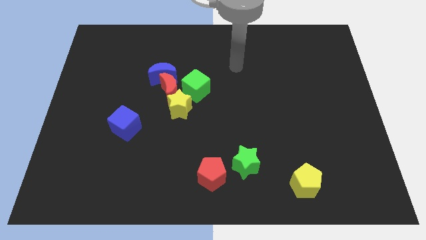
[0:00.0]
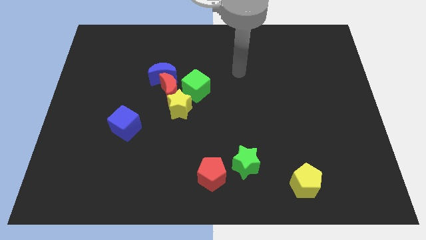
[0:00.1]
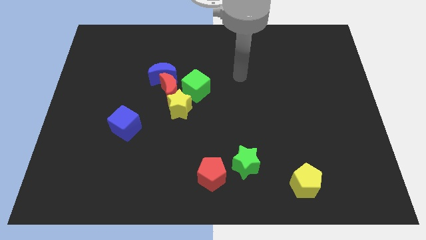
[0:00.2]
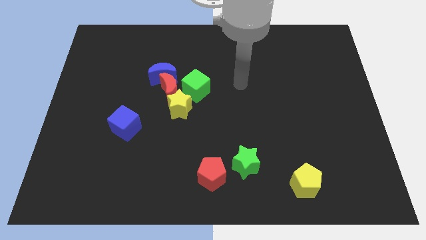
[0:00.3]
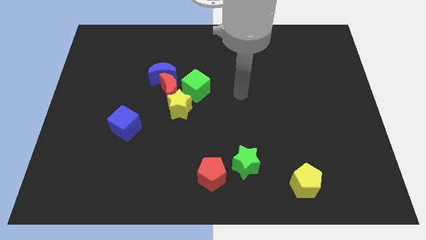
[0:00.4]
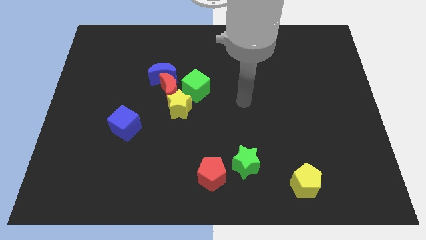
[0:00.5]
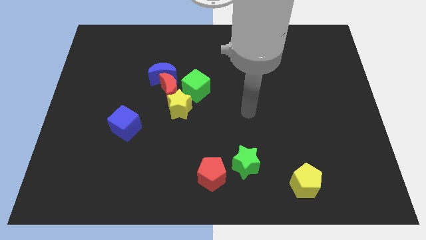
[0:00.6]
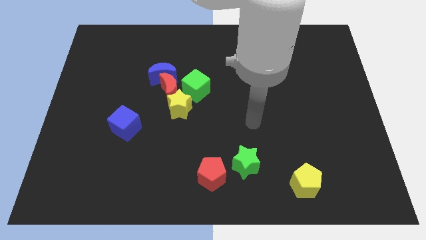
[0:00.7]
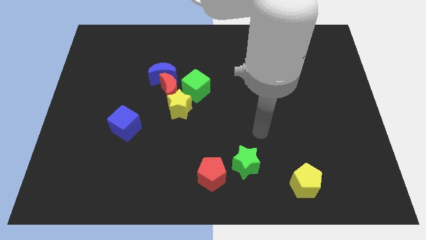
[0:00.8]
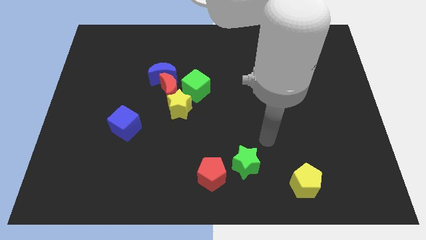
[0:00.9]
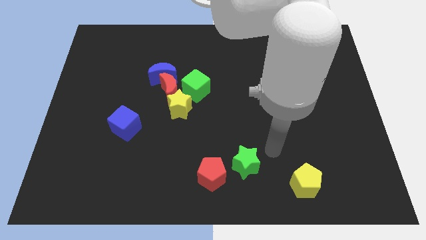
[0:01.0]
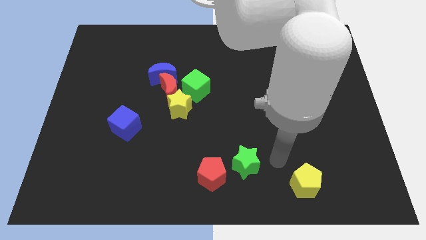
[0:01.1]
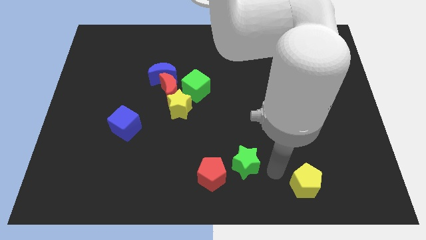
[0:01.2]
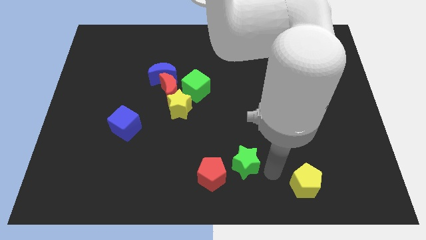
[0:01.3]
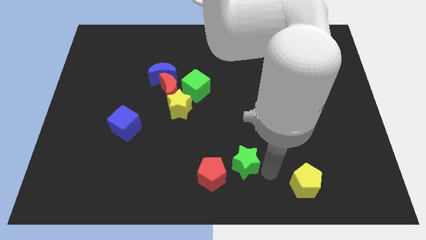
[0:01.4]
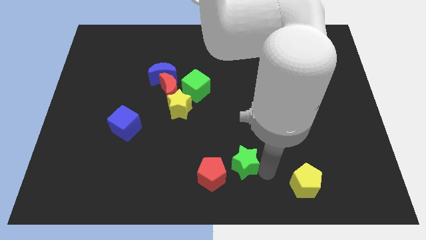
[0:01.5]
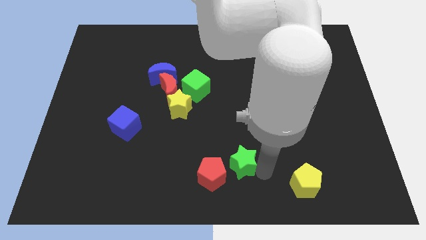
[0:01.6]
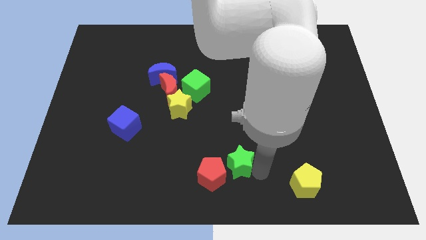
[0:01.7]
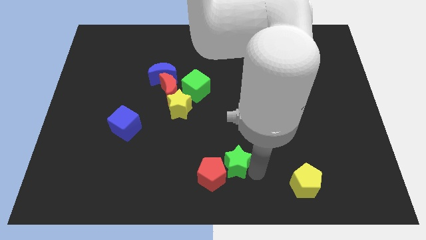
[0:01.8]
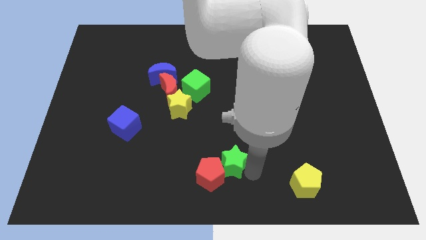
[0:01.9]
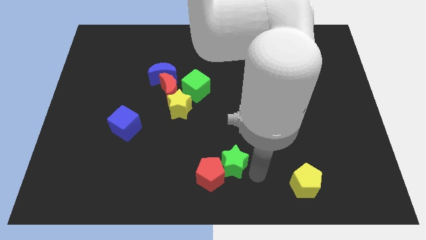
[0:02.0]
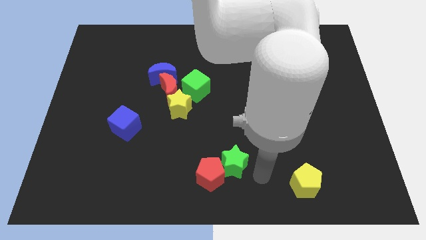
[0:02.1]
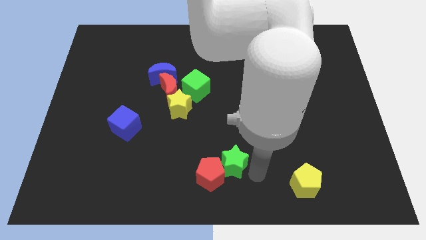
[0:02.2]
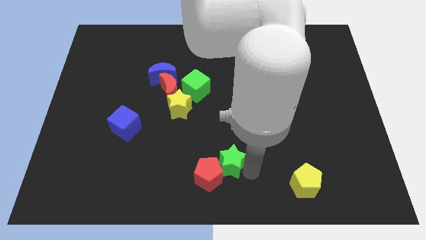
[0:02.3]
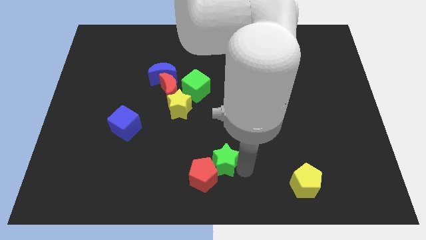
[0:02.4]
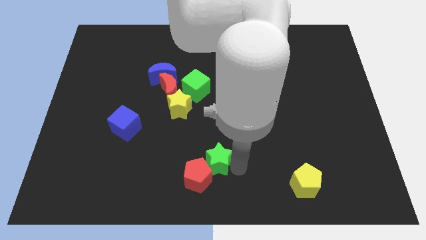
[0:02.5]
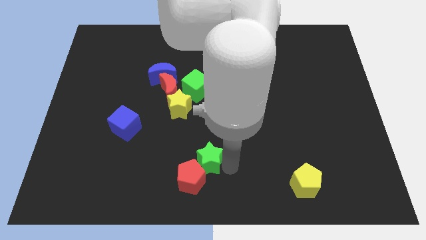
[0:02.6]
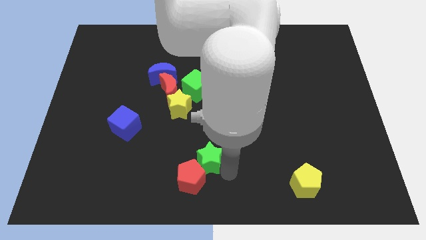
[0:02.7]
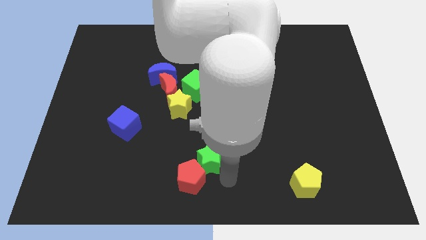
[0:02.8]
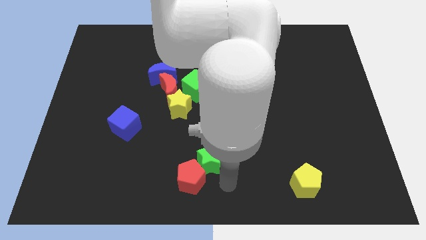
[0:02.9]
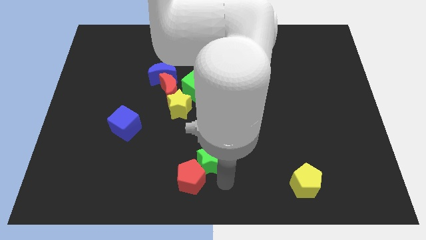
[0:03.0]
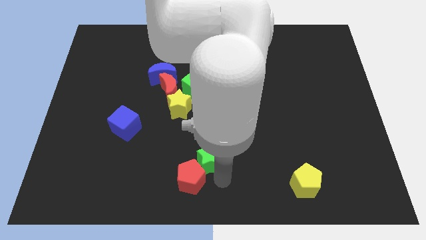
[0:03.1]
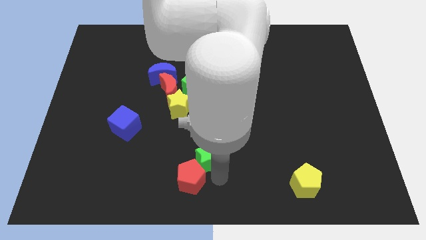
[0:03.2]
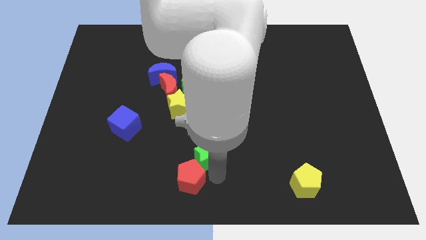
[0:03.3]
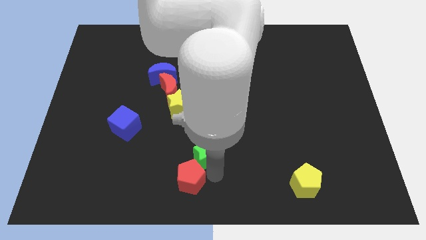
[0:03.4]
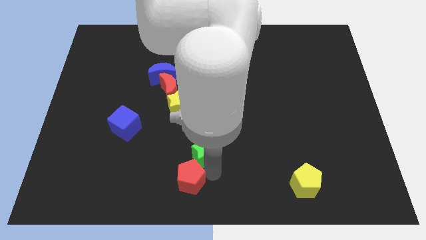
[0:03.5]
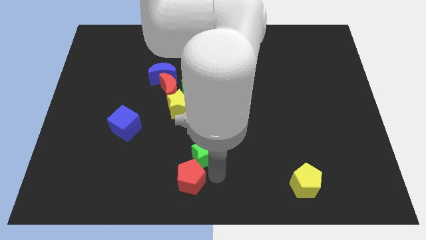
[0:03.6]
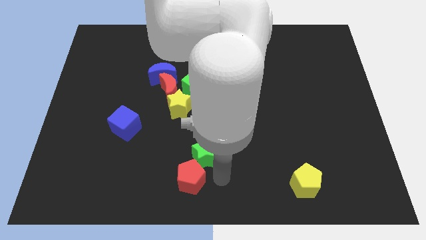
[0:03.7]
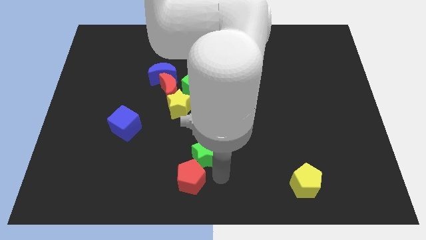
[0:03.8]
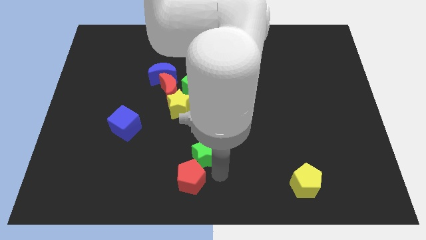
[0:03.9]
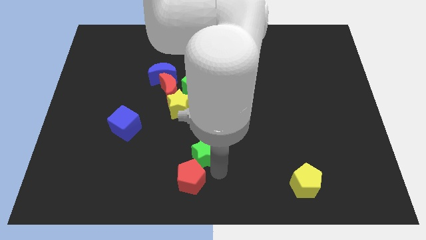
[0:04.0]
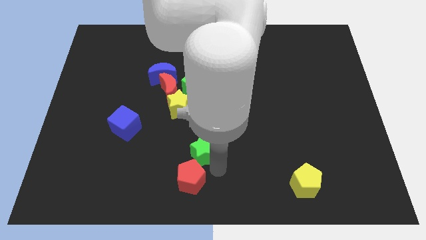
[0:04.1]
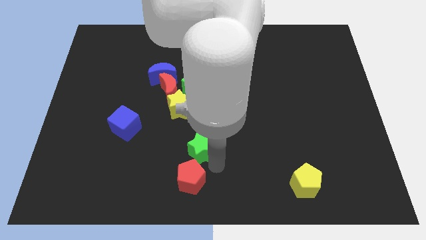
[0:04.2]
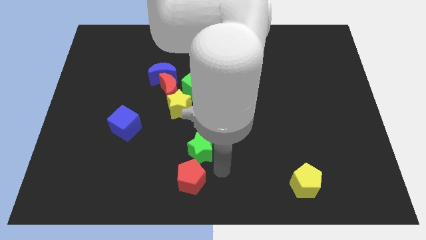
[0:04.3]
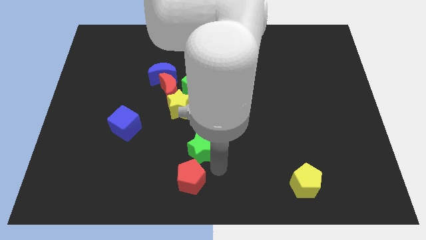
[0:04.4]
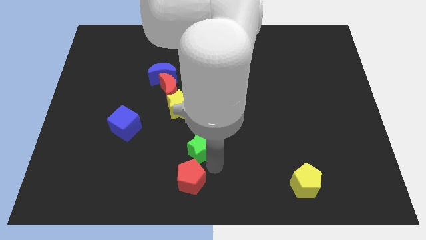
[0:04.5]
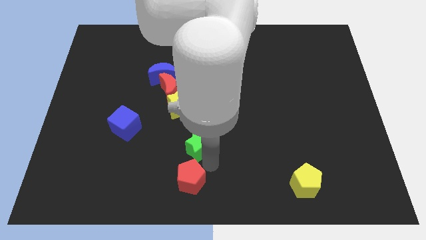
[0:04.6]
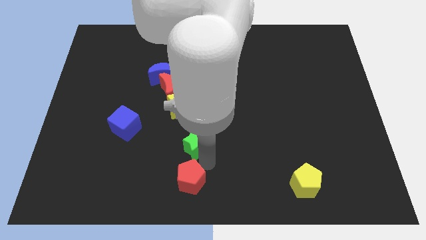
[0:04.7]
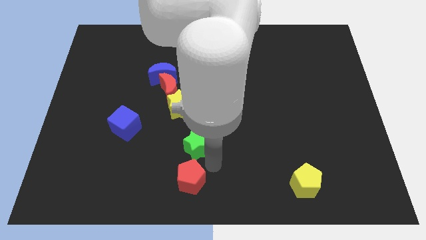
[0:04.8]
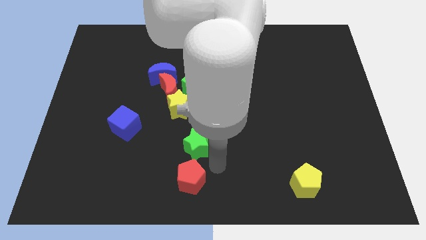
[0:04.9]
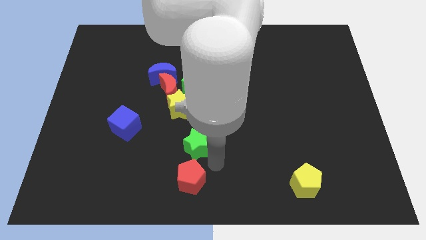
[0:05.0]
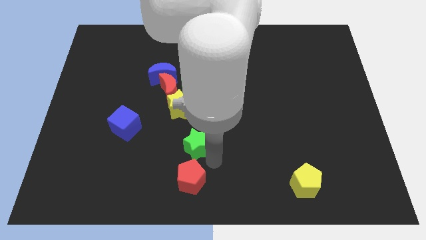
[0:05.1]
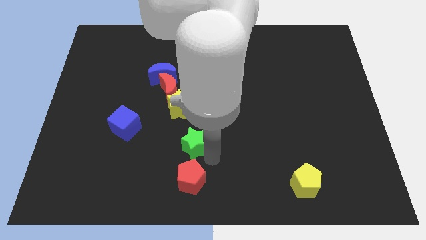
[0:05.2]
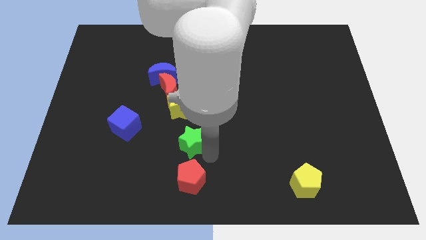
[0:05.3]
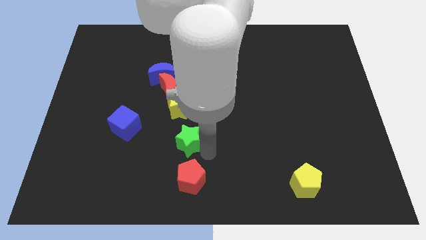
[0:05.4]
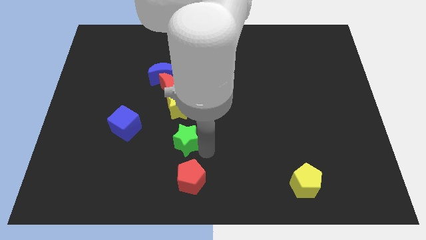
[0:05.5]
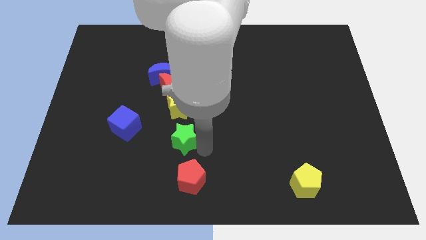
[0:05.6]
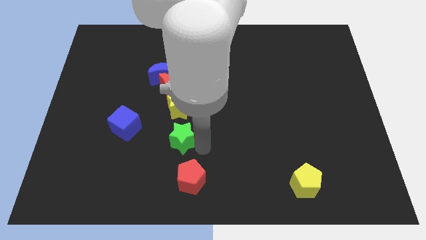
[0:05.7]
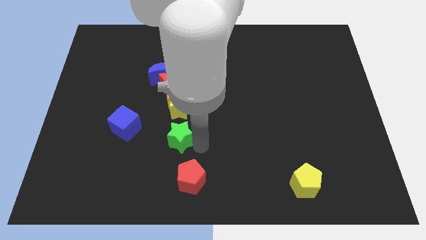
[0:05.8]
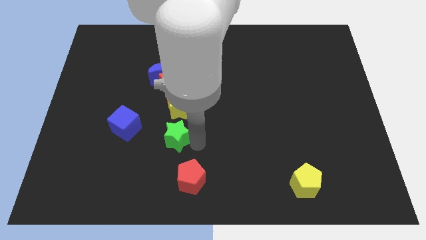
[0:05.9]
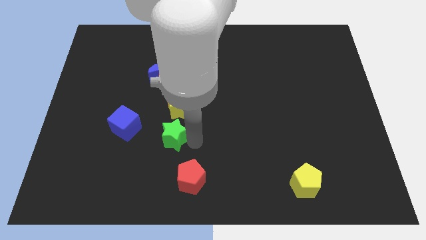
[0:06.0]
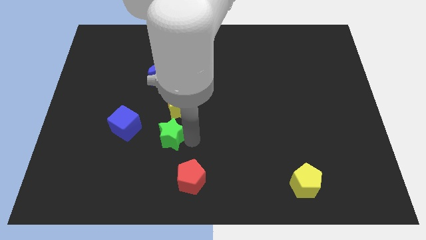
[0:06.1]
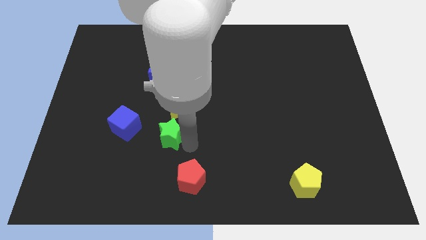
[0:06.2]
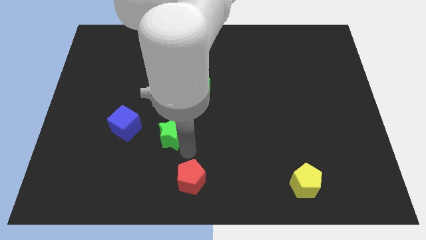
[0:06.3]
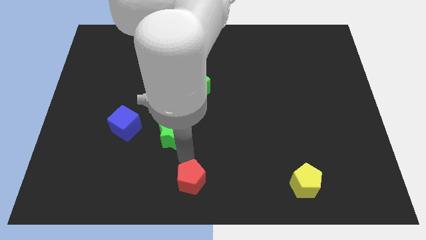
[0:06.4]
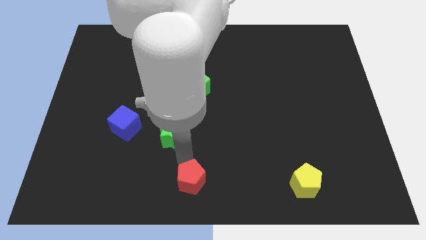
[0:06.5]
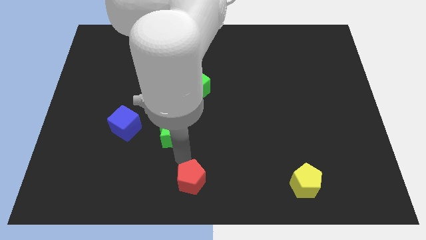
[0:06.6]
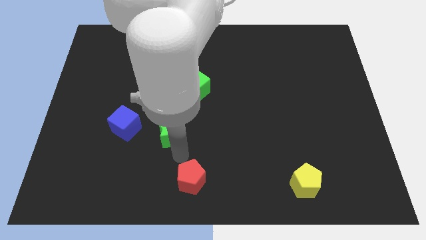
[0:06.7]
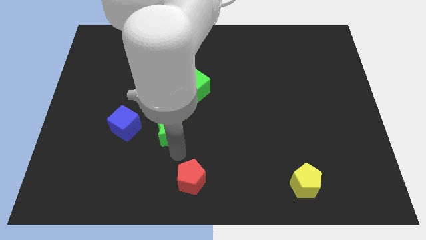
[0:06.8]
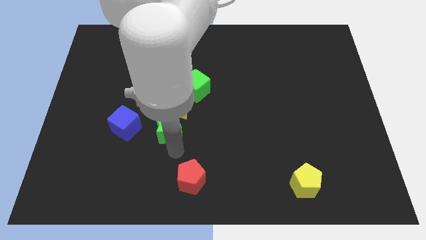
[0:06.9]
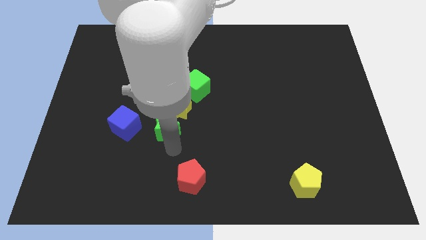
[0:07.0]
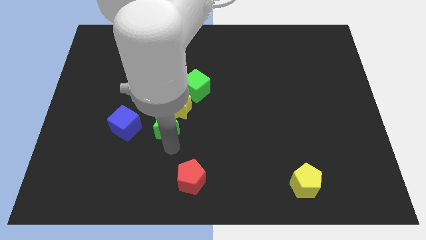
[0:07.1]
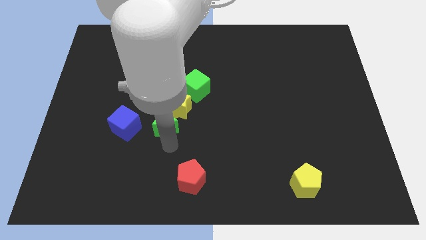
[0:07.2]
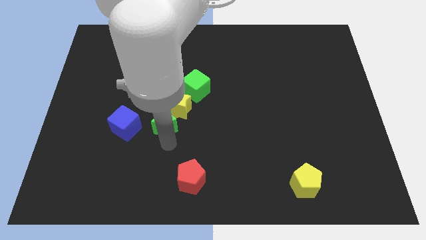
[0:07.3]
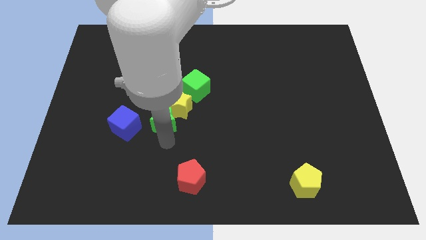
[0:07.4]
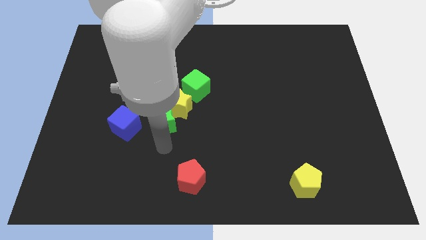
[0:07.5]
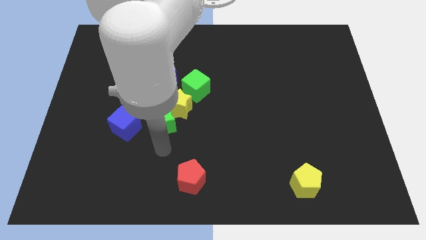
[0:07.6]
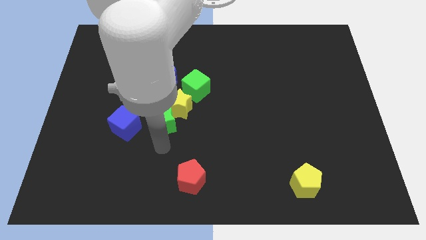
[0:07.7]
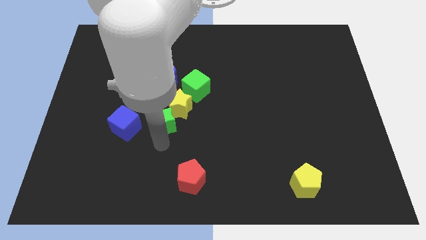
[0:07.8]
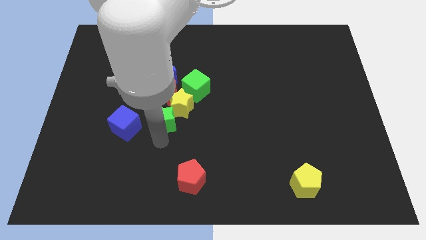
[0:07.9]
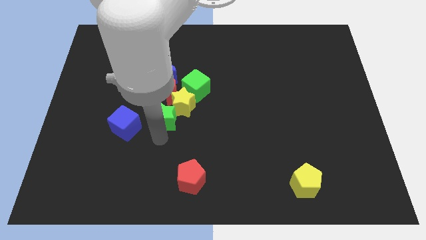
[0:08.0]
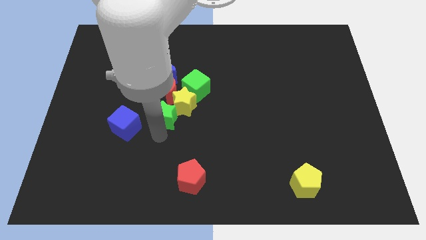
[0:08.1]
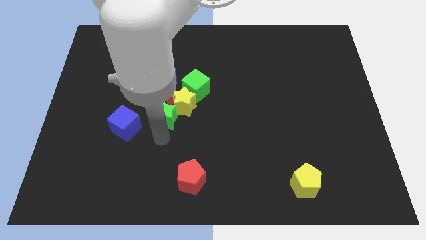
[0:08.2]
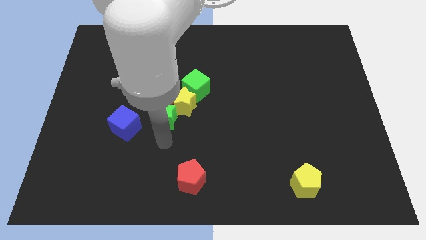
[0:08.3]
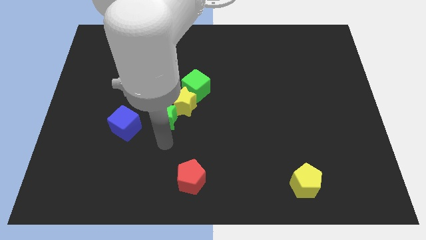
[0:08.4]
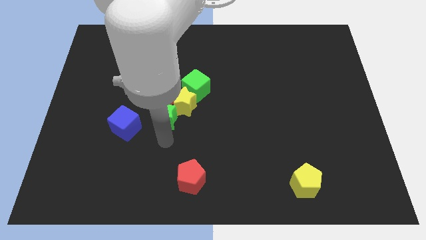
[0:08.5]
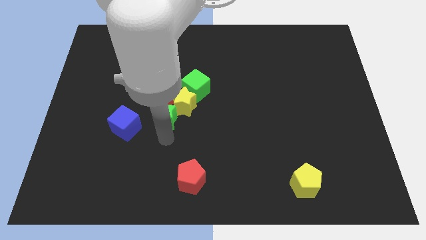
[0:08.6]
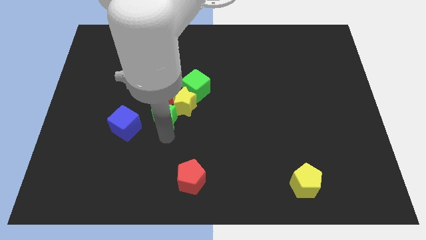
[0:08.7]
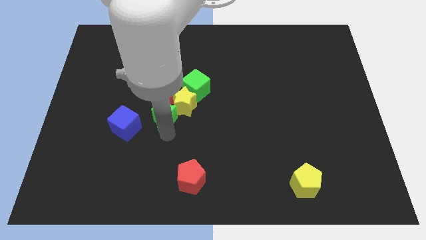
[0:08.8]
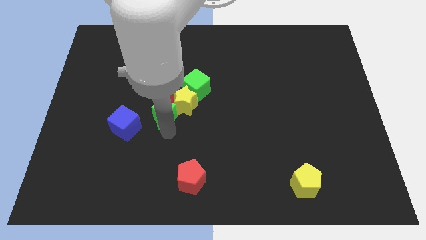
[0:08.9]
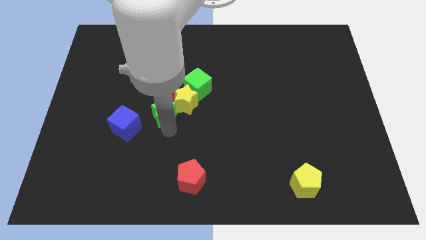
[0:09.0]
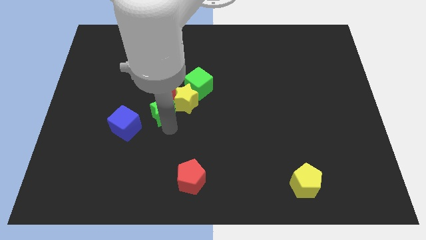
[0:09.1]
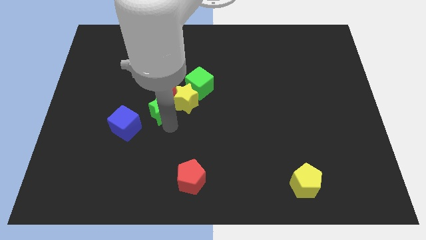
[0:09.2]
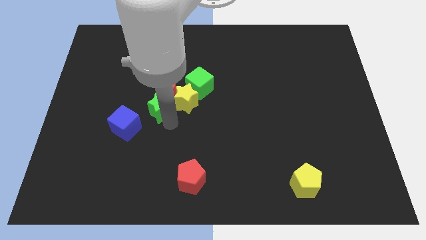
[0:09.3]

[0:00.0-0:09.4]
put the green star next to the red moon
